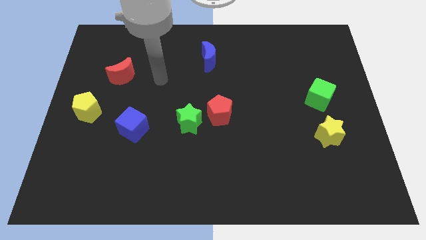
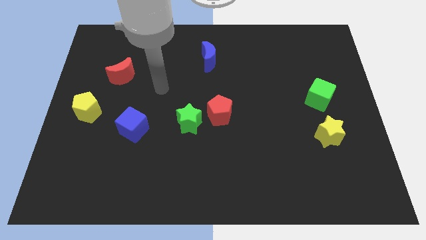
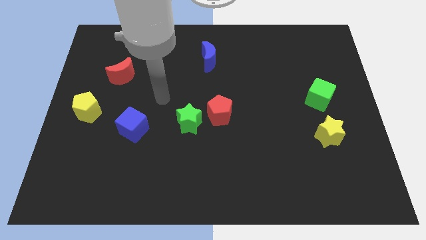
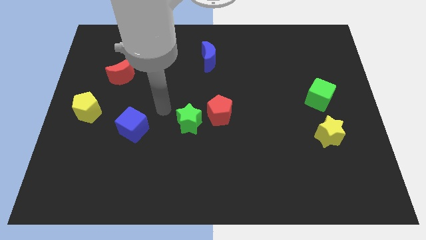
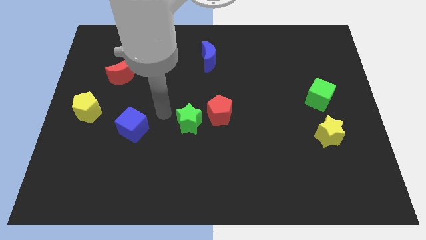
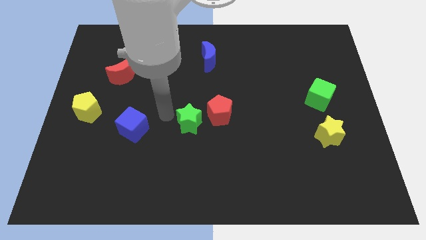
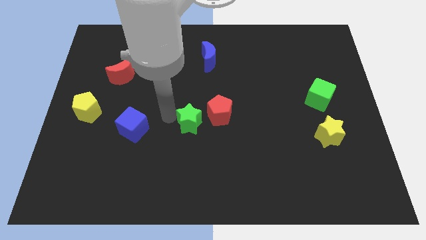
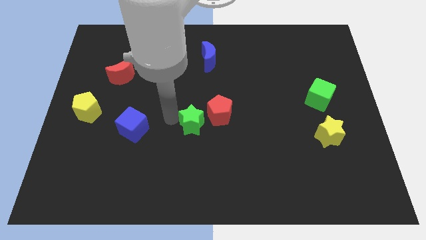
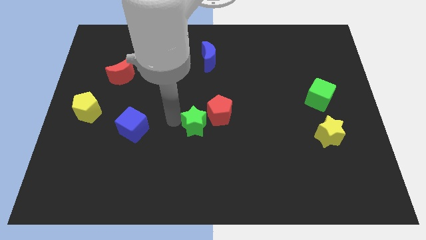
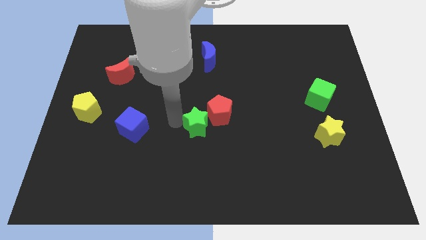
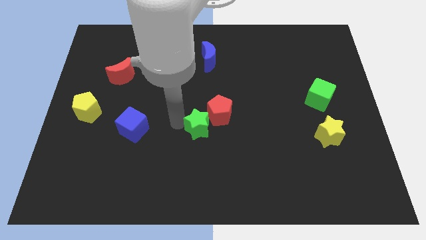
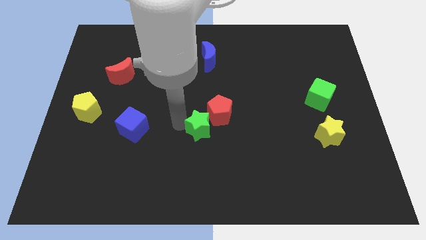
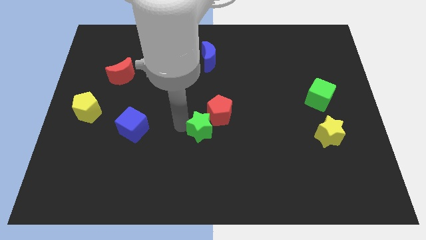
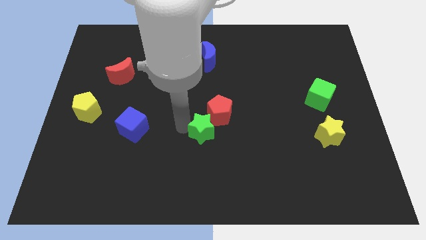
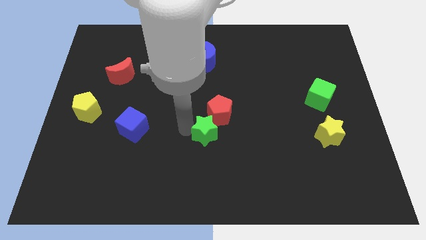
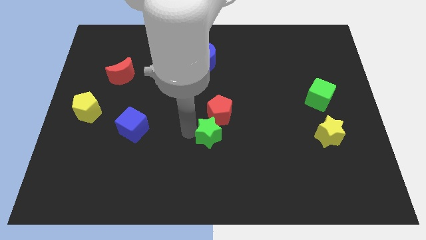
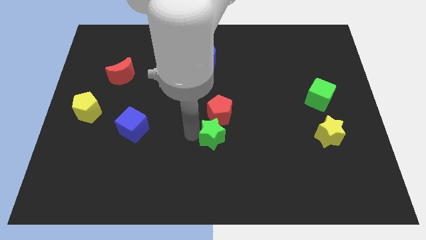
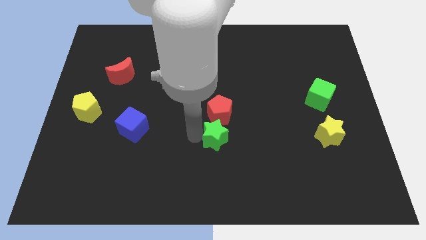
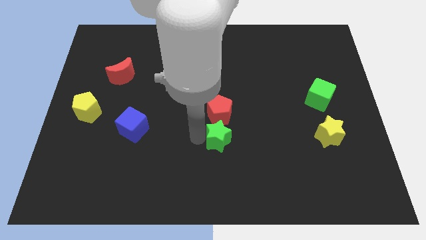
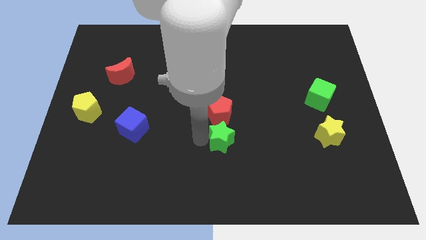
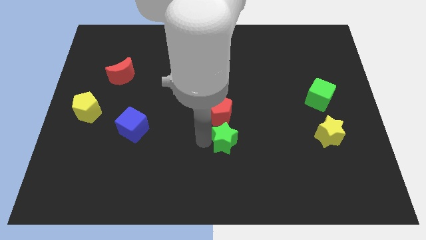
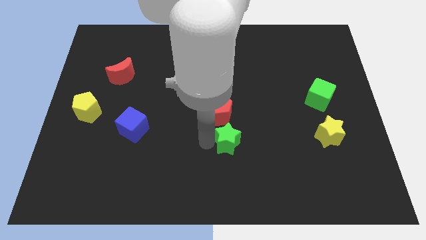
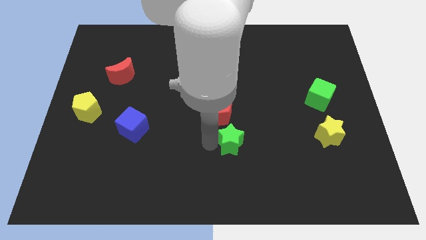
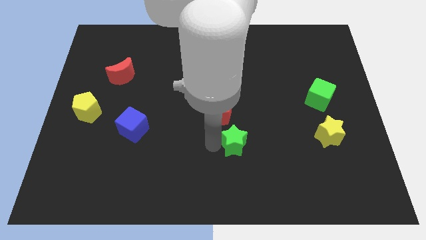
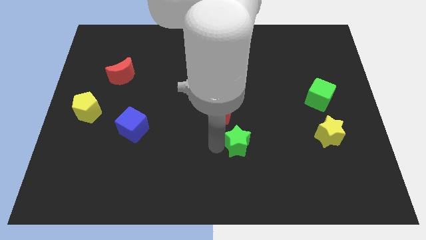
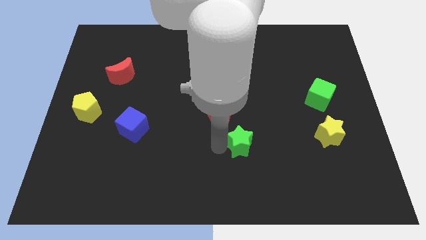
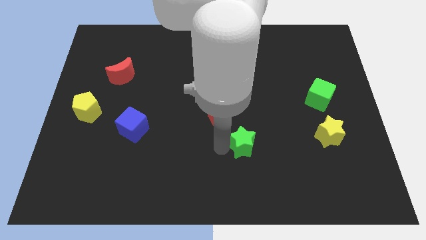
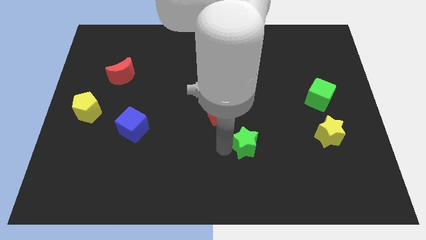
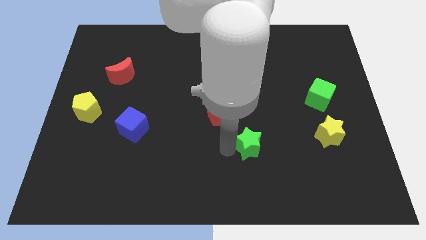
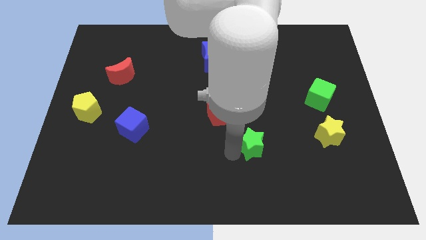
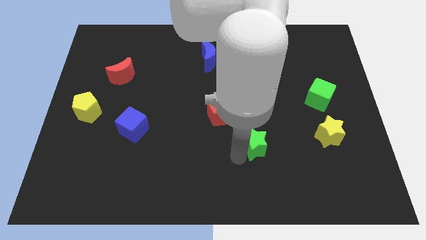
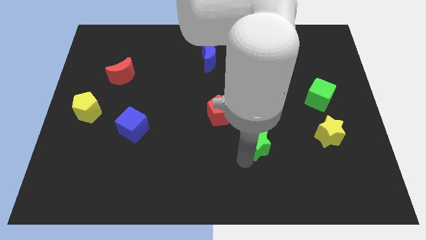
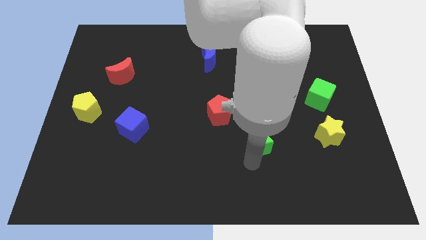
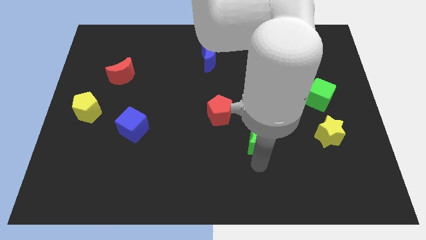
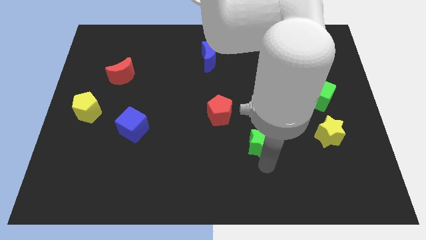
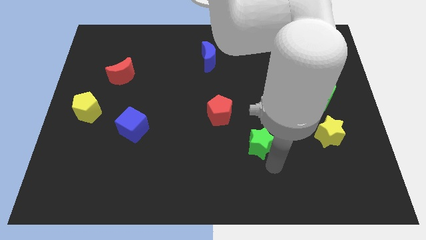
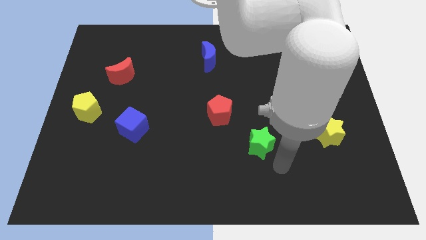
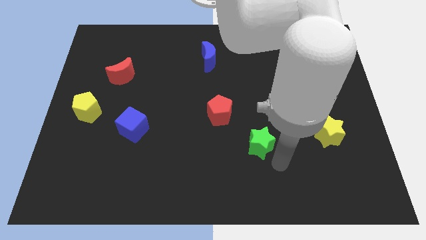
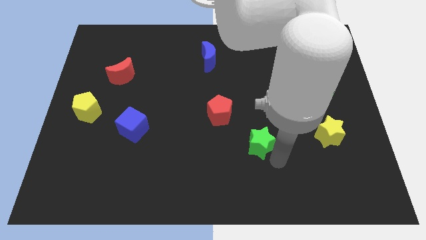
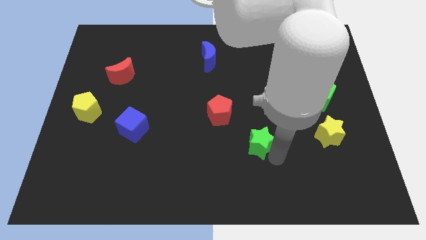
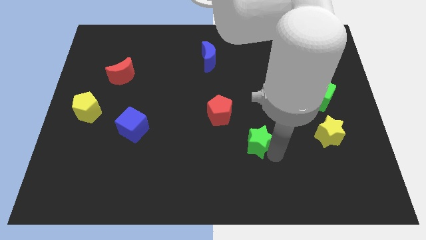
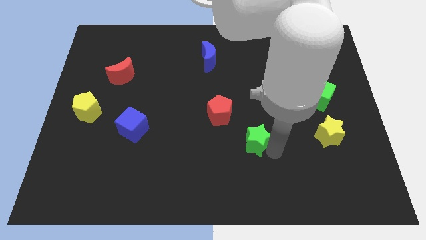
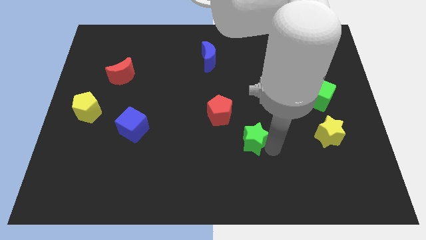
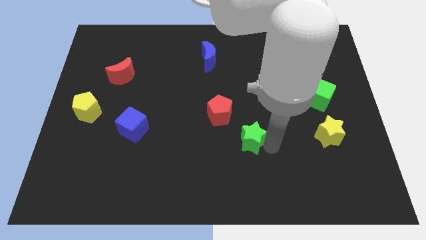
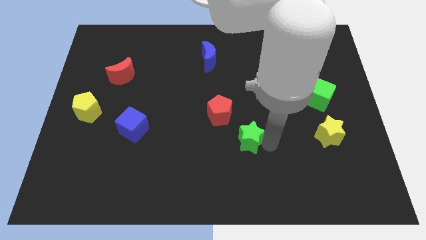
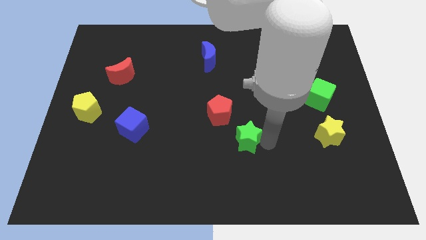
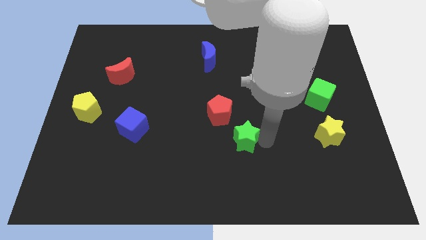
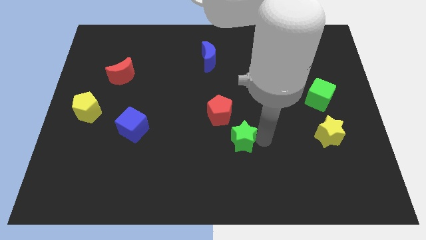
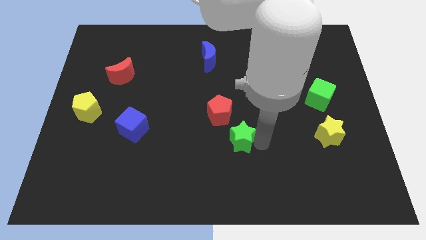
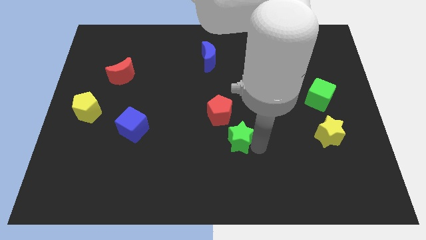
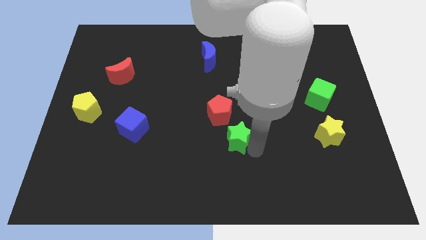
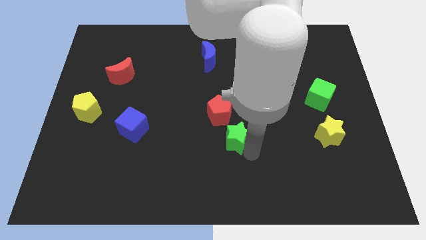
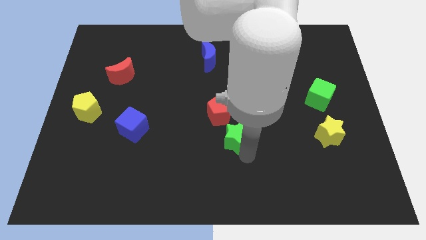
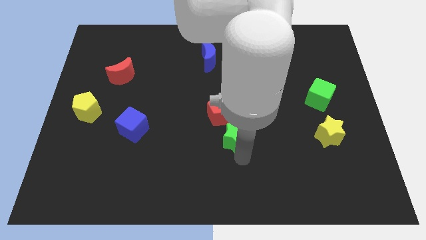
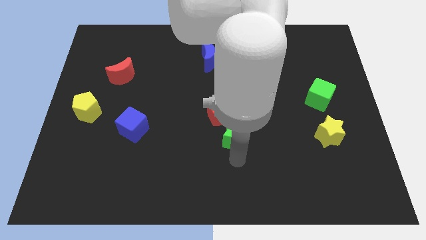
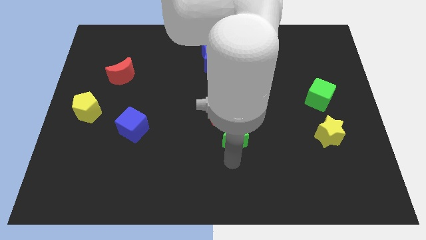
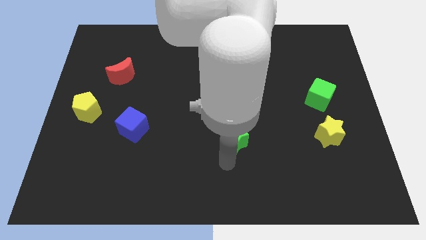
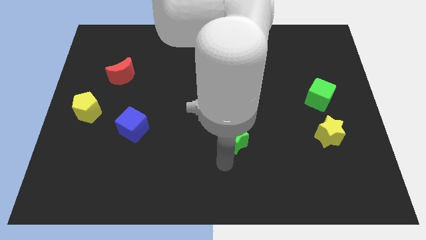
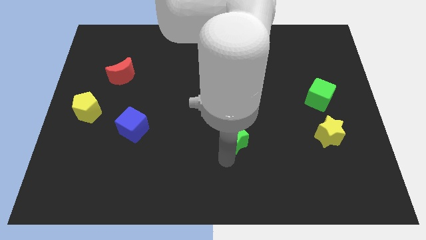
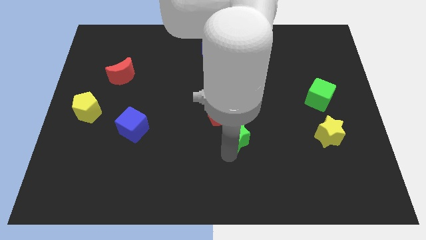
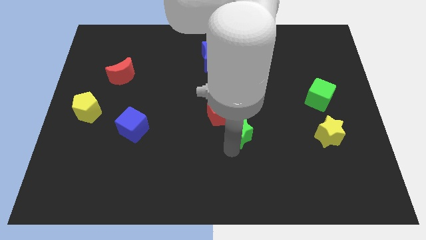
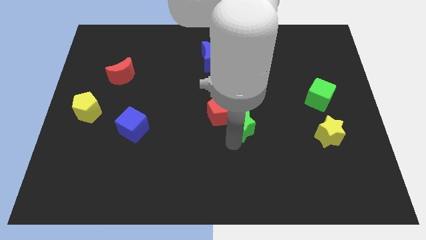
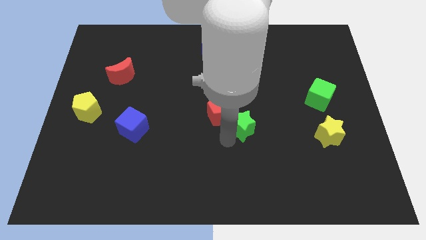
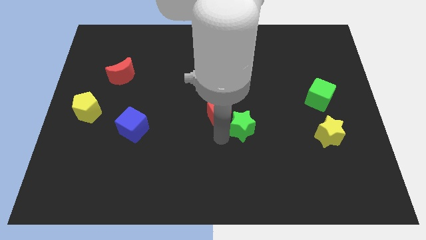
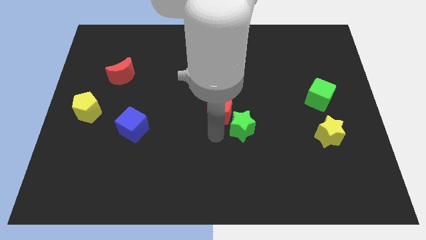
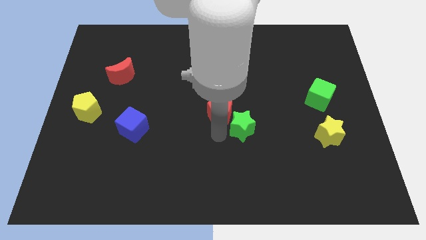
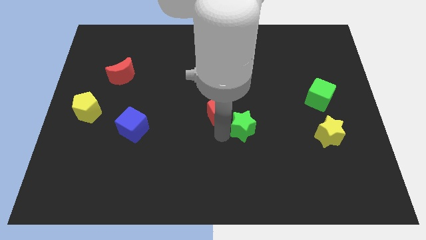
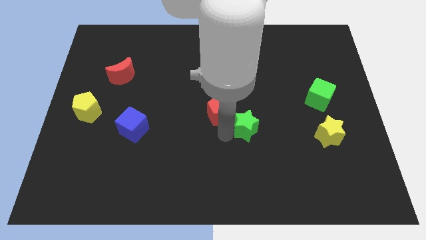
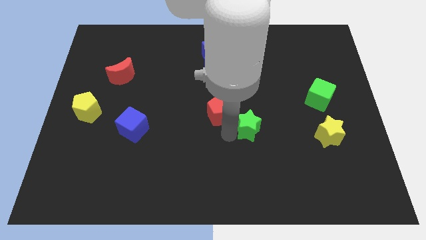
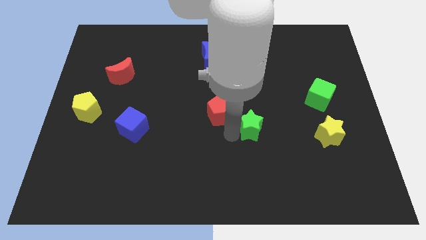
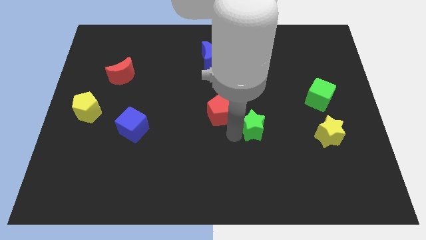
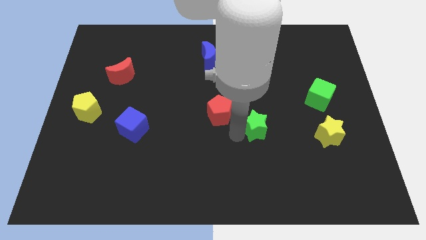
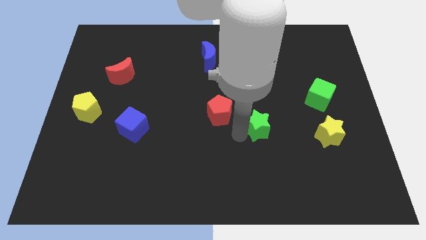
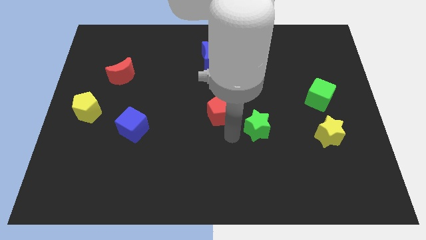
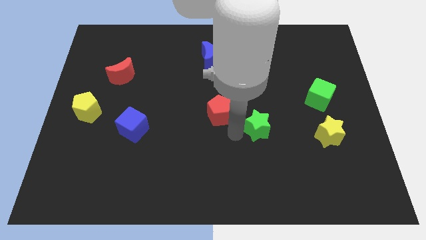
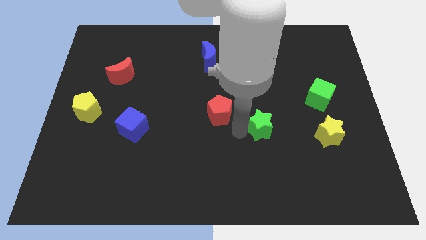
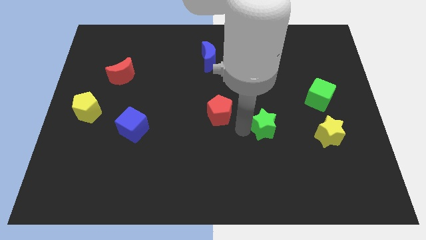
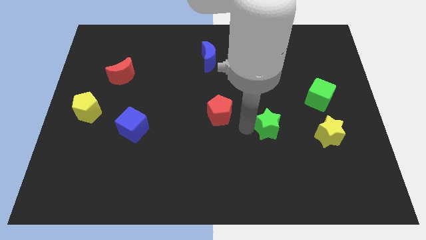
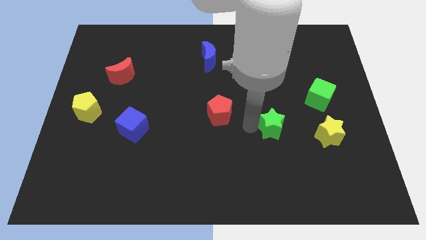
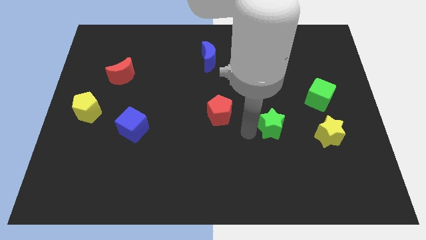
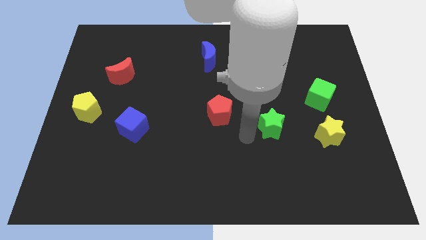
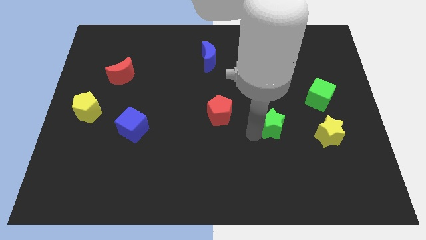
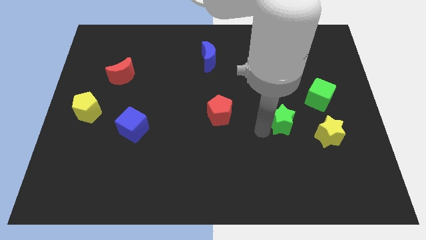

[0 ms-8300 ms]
move the green star diagonally down and to the left of the green cube
